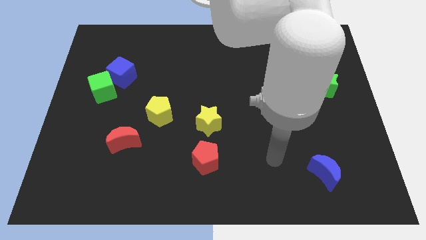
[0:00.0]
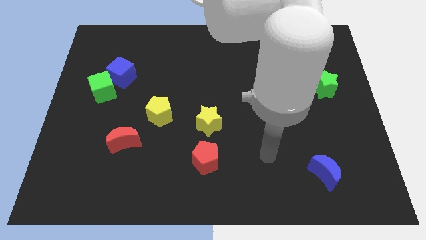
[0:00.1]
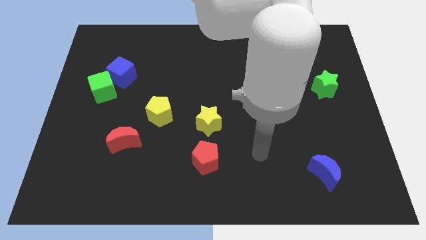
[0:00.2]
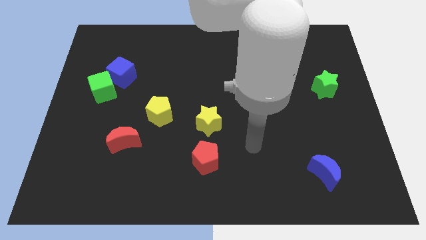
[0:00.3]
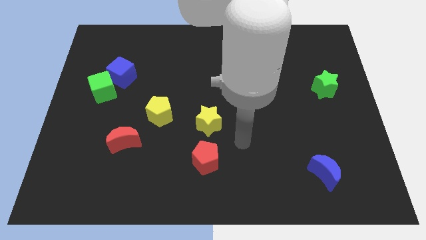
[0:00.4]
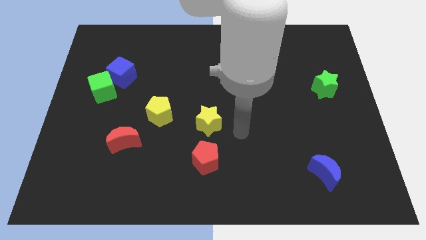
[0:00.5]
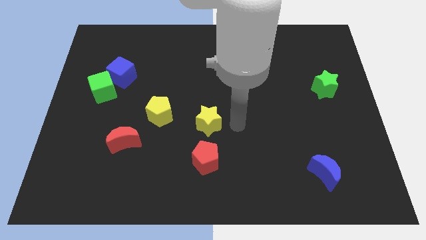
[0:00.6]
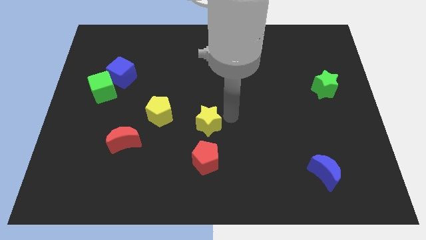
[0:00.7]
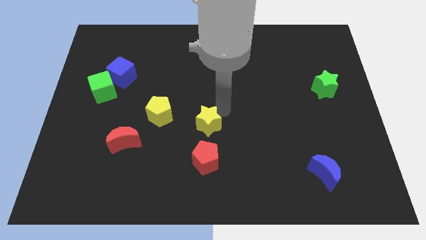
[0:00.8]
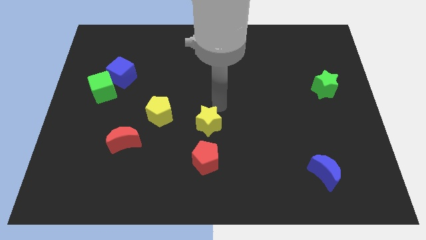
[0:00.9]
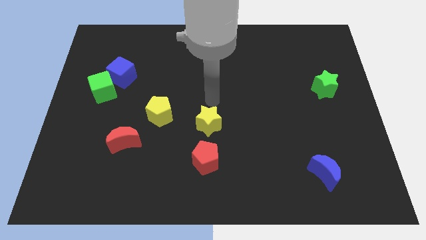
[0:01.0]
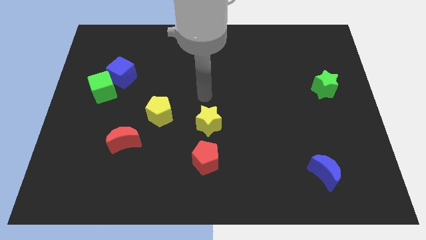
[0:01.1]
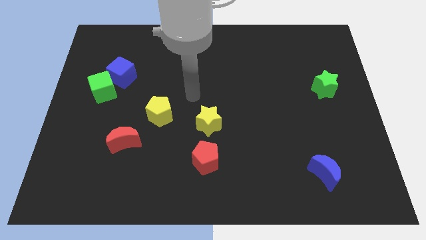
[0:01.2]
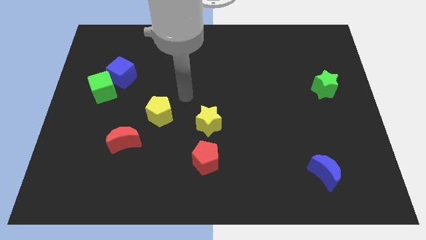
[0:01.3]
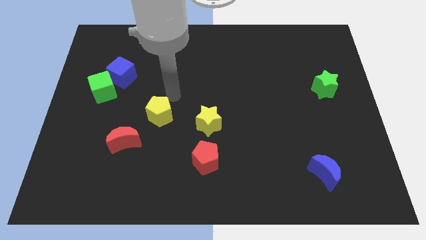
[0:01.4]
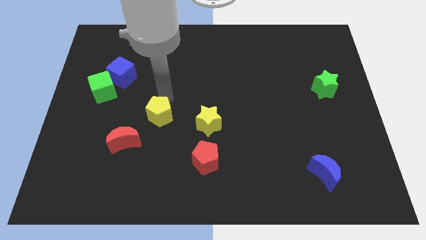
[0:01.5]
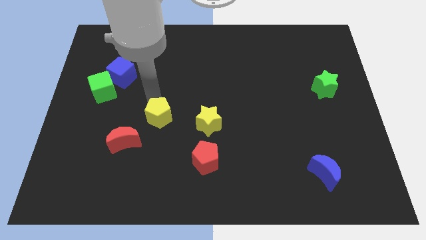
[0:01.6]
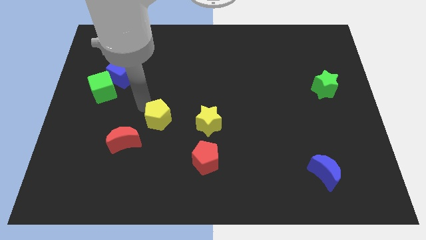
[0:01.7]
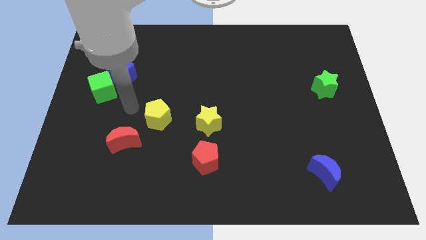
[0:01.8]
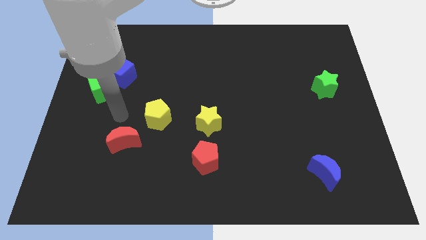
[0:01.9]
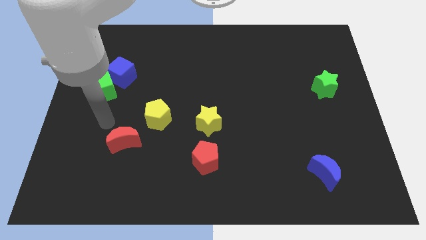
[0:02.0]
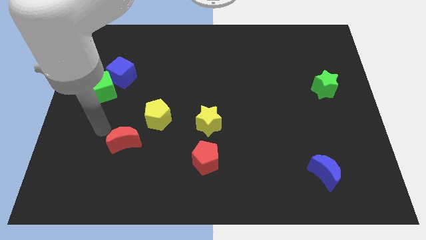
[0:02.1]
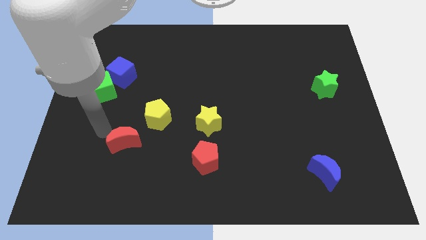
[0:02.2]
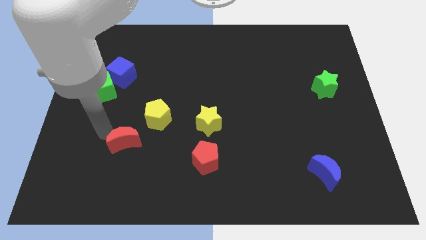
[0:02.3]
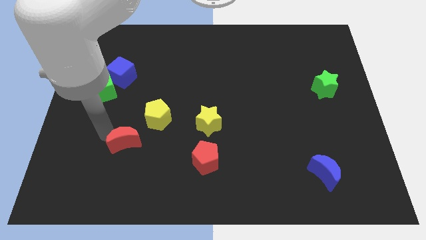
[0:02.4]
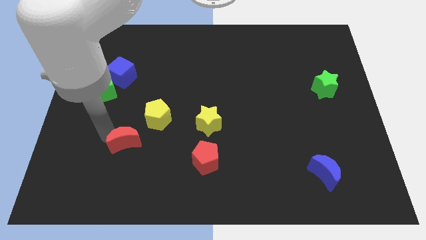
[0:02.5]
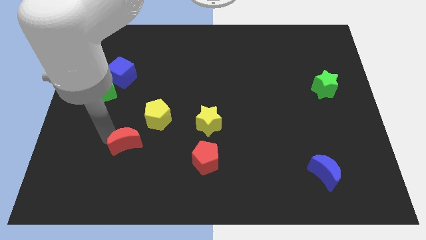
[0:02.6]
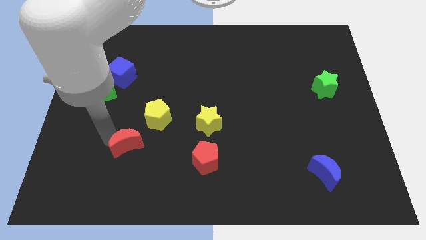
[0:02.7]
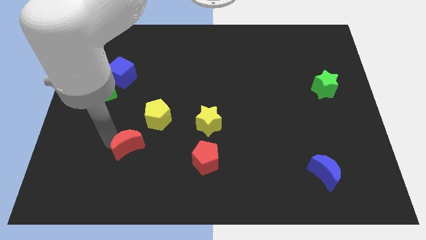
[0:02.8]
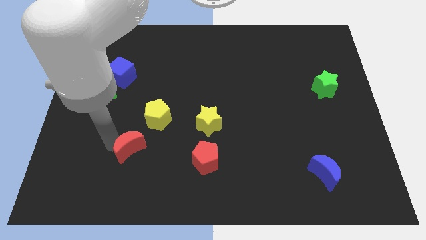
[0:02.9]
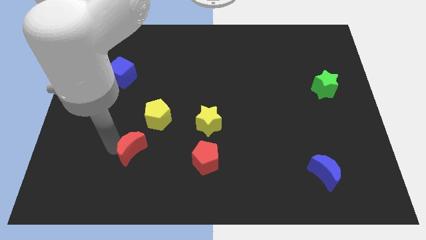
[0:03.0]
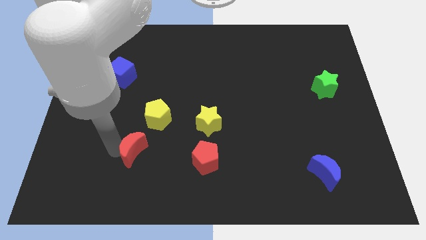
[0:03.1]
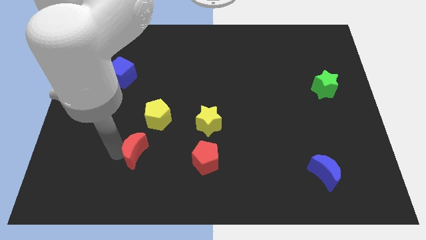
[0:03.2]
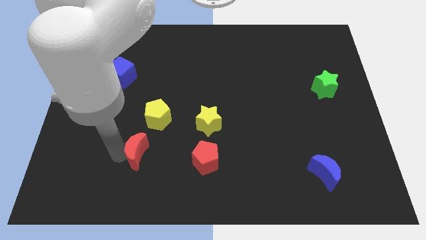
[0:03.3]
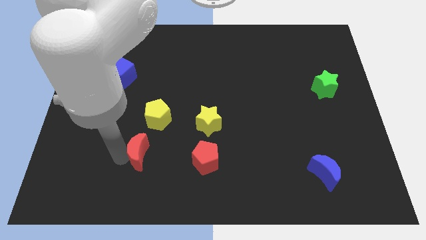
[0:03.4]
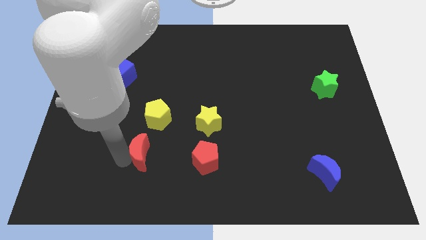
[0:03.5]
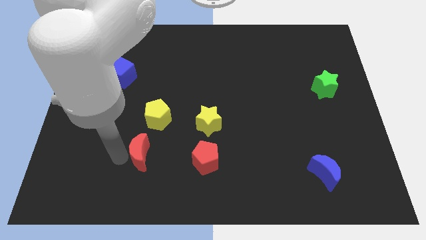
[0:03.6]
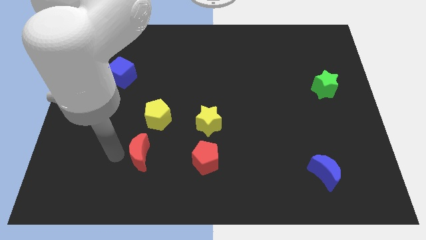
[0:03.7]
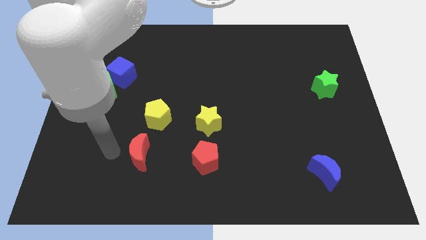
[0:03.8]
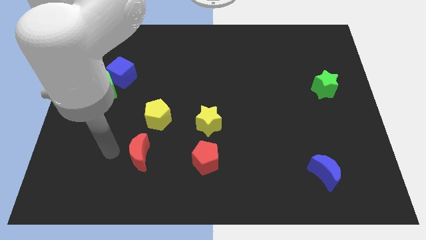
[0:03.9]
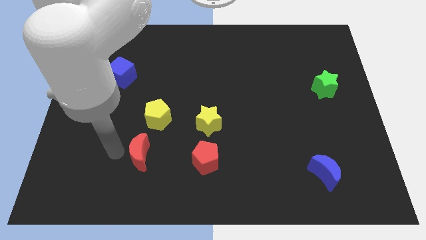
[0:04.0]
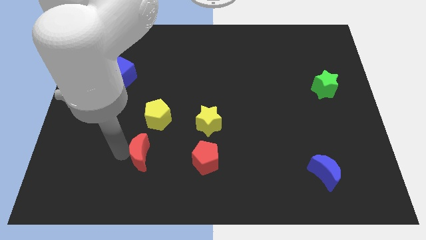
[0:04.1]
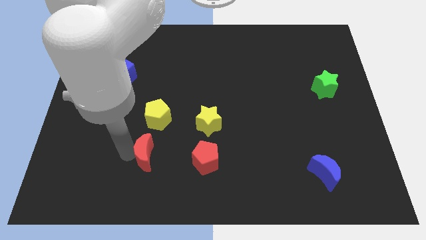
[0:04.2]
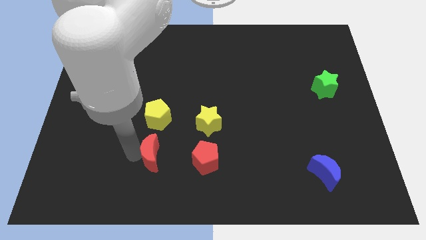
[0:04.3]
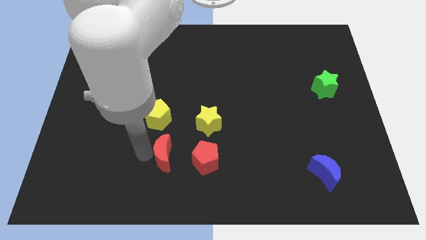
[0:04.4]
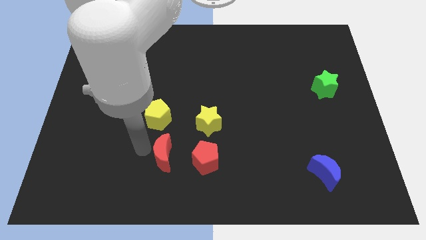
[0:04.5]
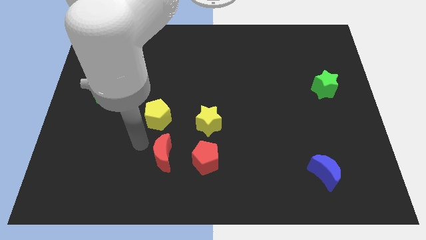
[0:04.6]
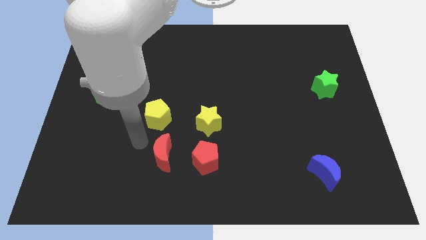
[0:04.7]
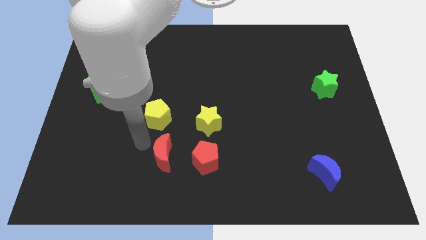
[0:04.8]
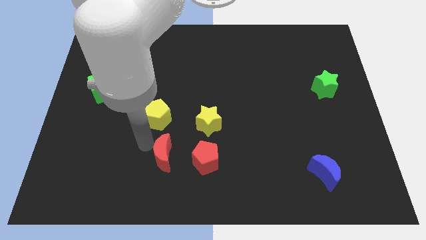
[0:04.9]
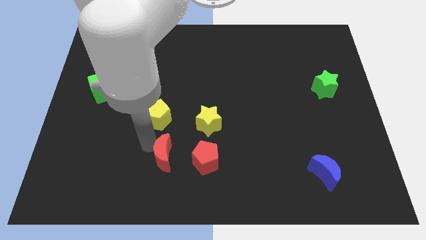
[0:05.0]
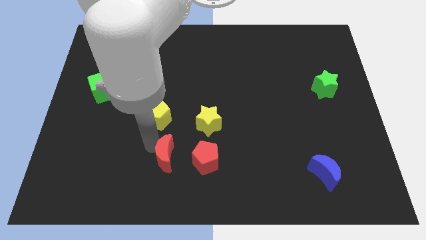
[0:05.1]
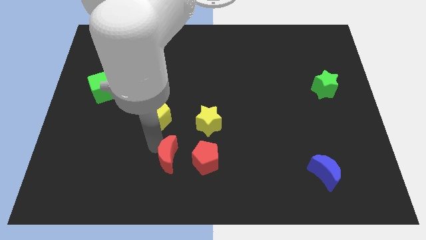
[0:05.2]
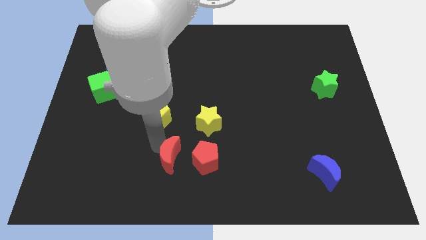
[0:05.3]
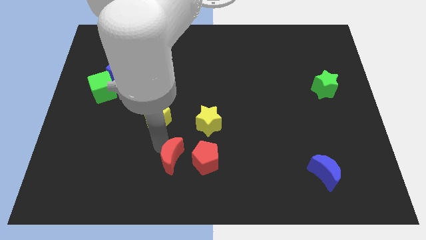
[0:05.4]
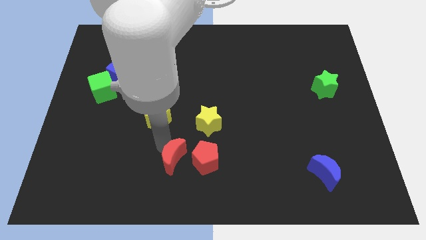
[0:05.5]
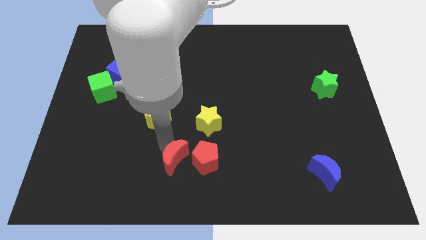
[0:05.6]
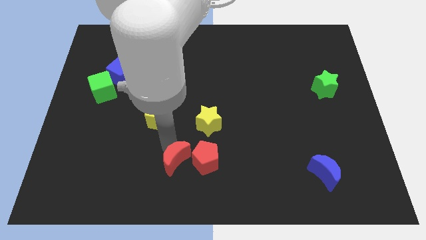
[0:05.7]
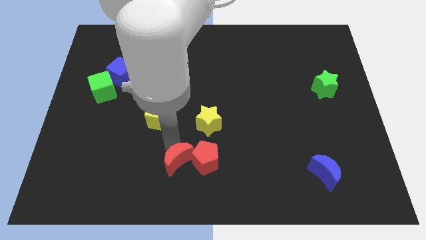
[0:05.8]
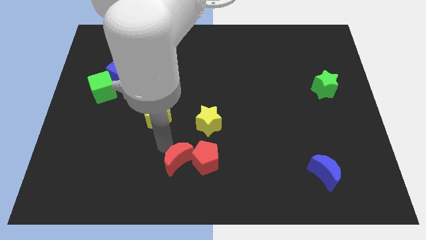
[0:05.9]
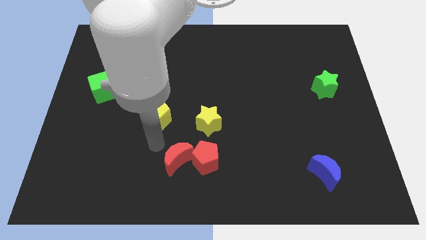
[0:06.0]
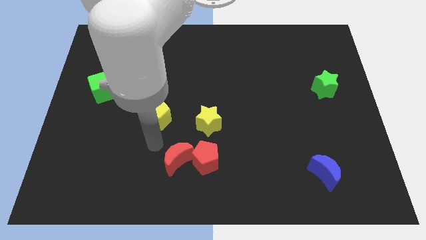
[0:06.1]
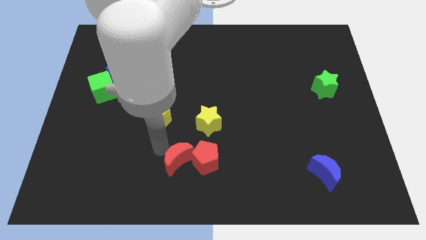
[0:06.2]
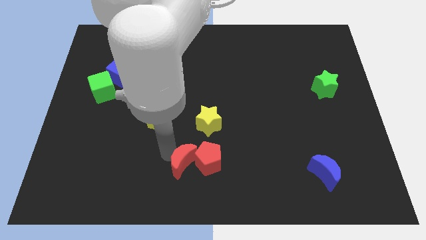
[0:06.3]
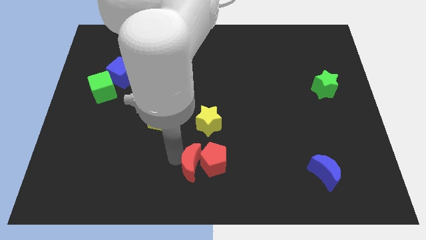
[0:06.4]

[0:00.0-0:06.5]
put the red moon to the bottom side of the yellow star
